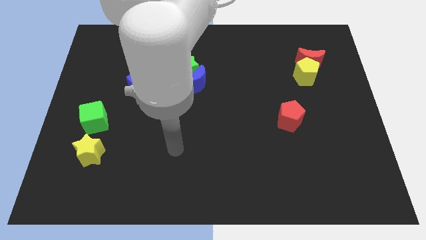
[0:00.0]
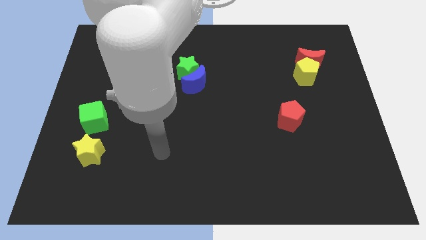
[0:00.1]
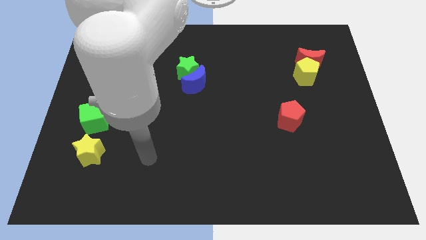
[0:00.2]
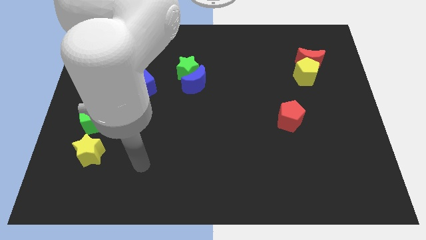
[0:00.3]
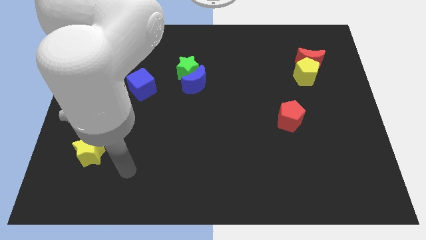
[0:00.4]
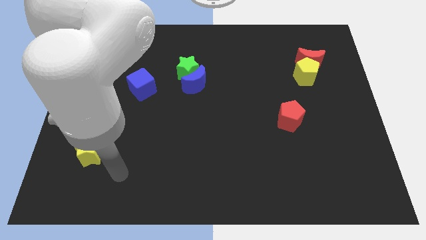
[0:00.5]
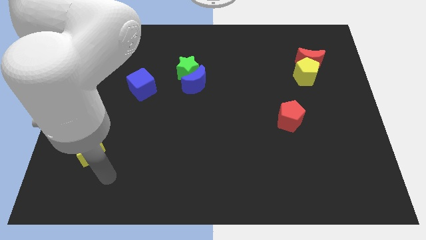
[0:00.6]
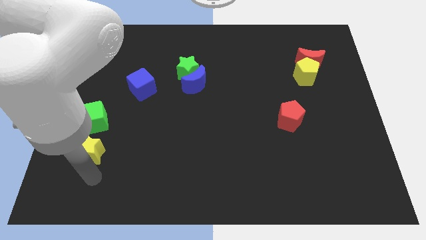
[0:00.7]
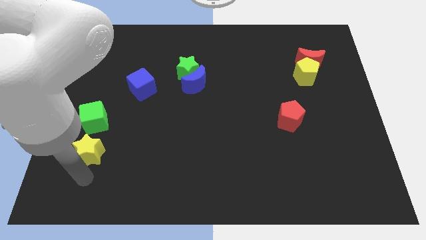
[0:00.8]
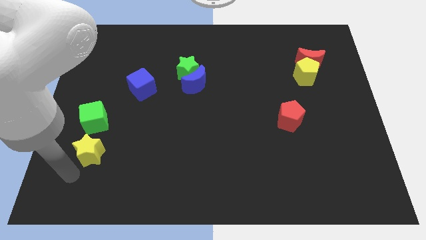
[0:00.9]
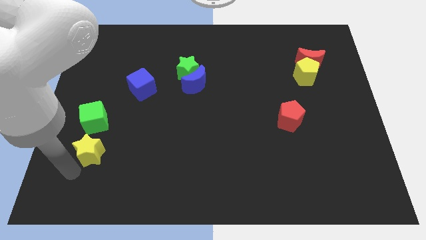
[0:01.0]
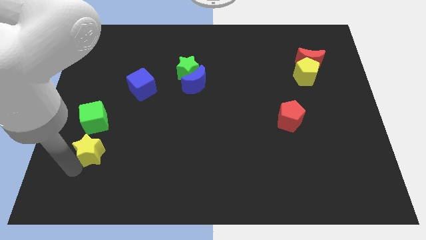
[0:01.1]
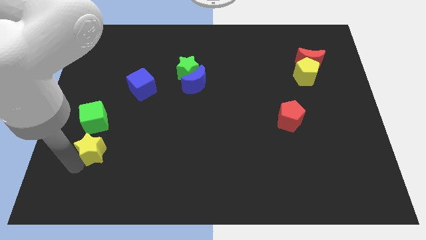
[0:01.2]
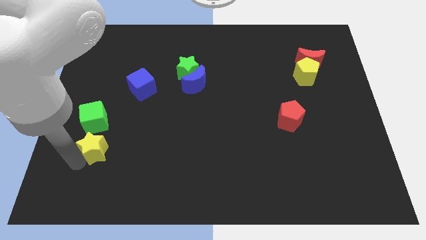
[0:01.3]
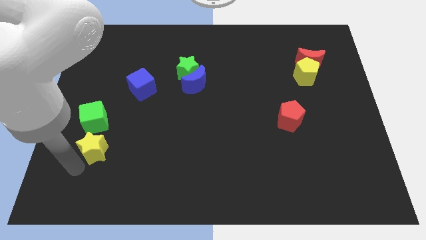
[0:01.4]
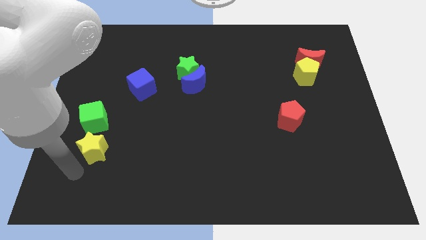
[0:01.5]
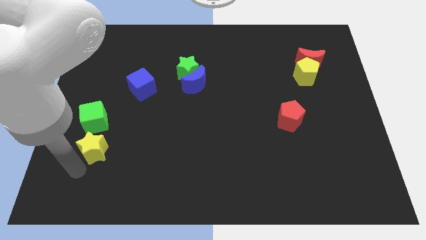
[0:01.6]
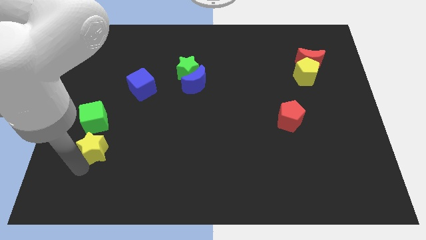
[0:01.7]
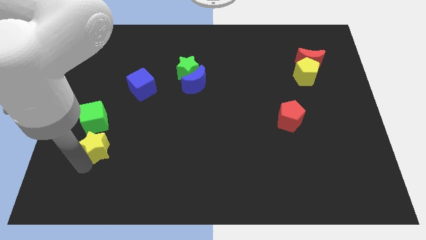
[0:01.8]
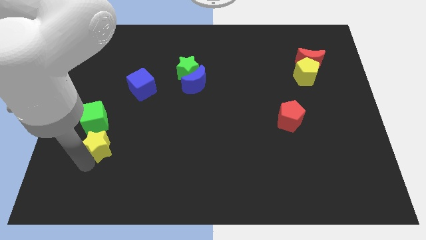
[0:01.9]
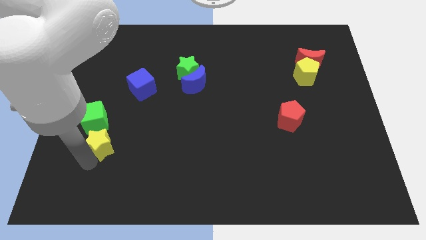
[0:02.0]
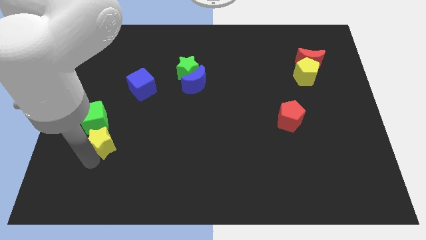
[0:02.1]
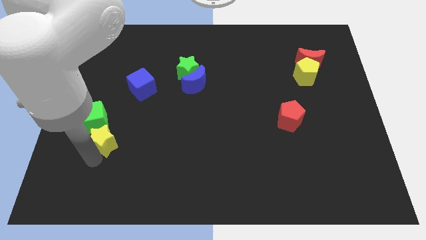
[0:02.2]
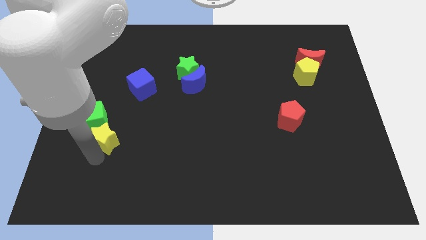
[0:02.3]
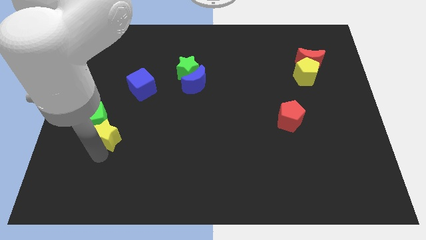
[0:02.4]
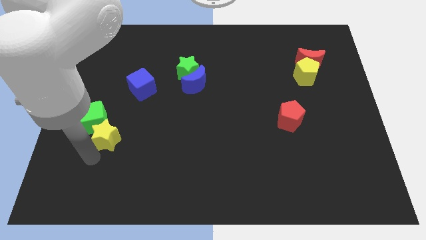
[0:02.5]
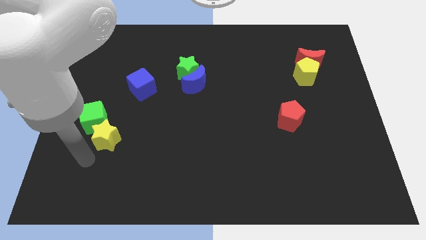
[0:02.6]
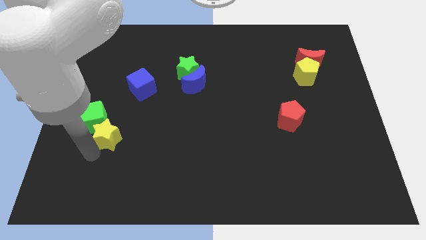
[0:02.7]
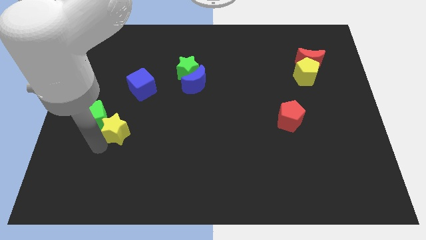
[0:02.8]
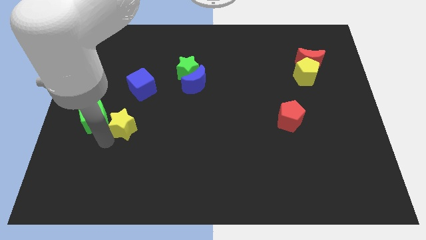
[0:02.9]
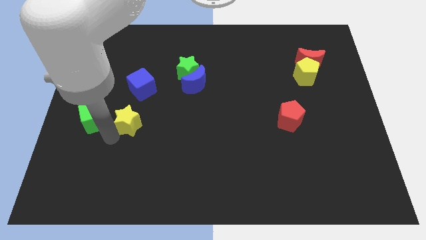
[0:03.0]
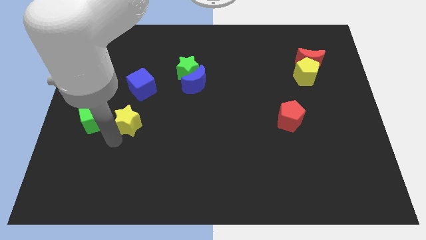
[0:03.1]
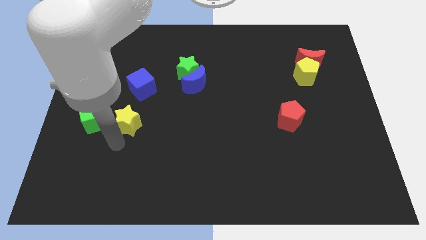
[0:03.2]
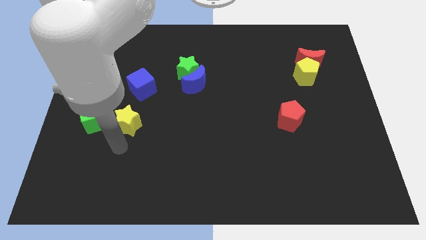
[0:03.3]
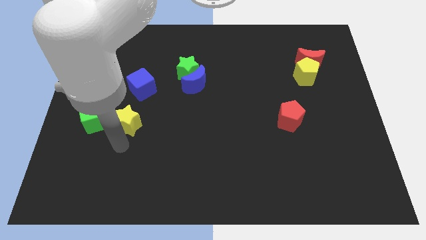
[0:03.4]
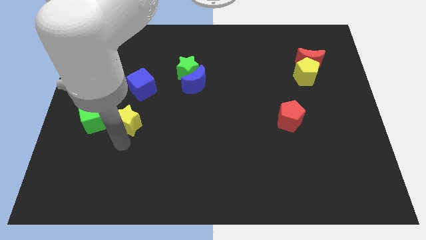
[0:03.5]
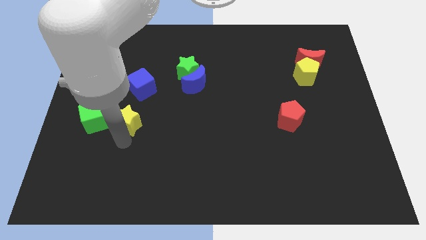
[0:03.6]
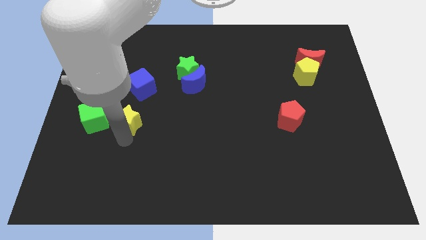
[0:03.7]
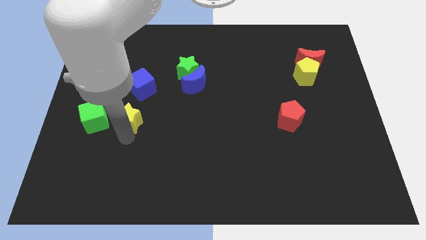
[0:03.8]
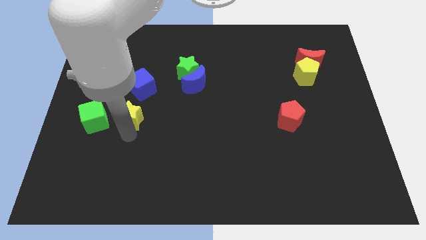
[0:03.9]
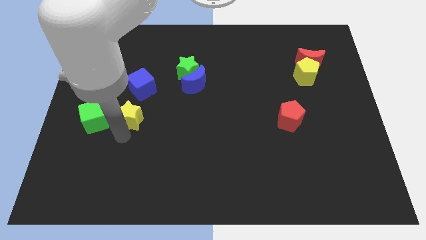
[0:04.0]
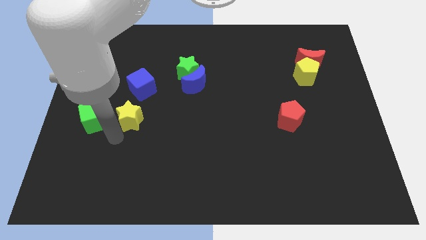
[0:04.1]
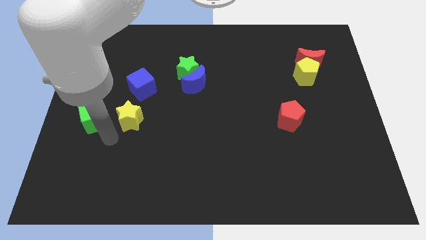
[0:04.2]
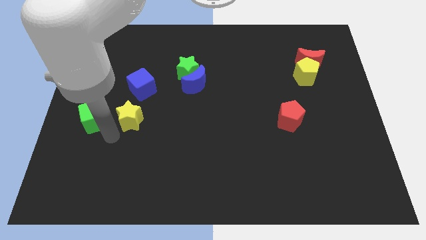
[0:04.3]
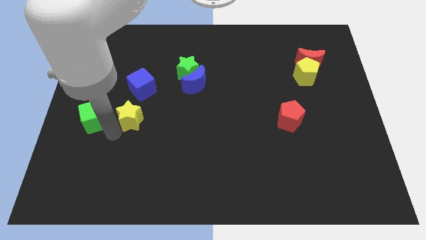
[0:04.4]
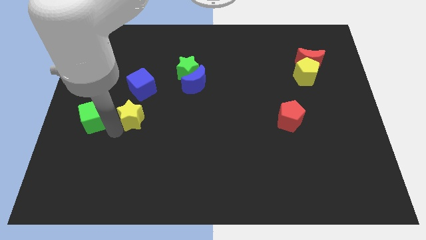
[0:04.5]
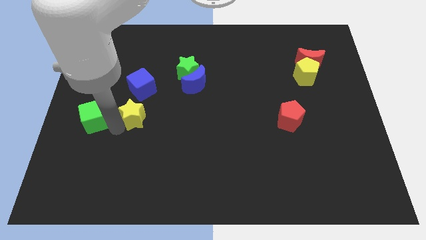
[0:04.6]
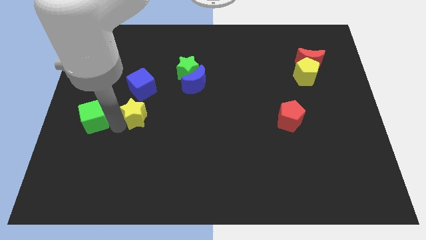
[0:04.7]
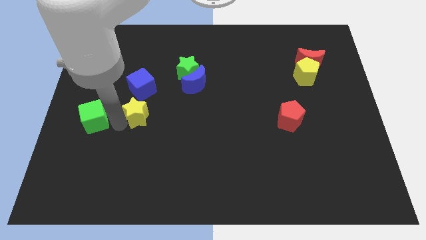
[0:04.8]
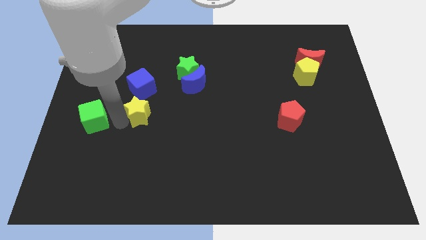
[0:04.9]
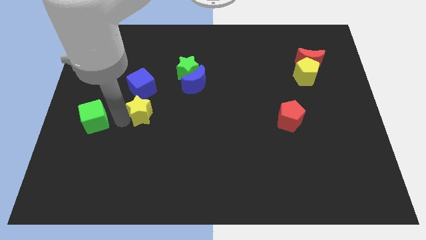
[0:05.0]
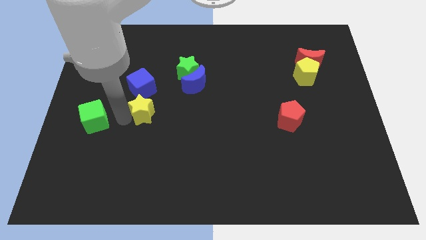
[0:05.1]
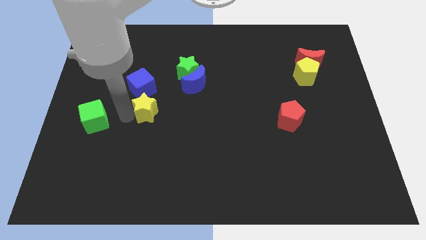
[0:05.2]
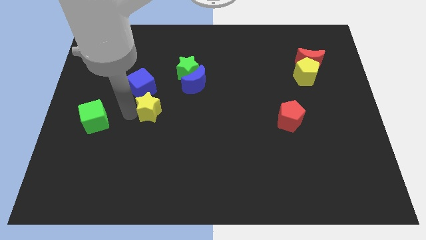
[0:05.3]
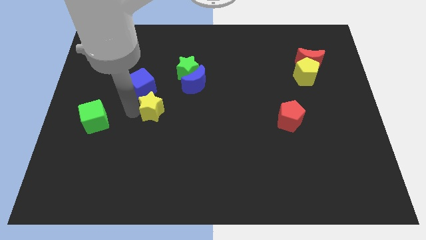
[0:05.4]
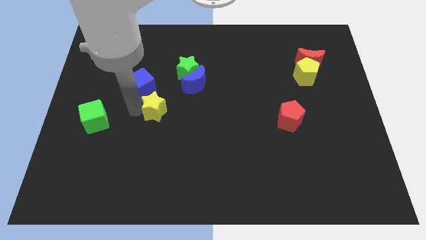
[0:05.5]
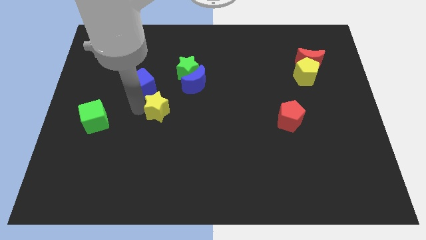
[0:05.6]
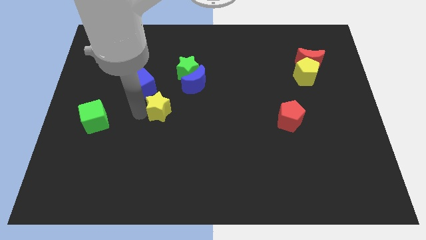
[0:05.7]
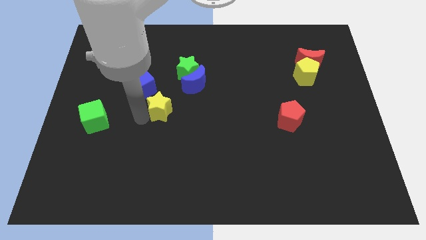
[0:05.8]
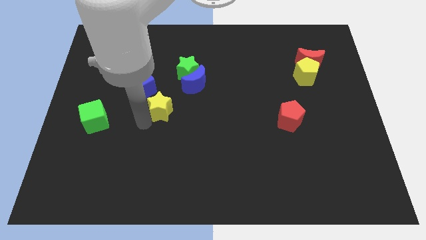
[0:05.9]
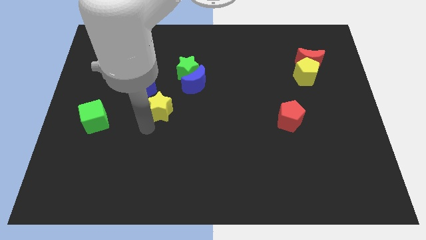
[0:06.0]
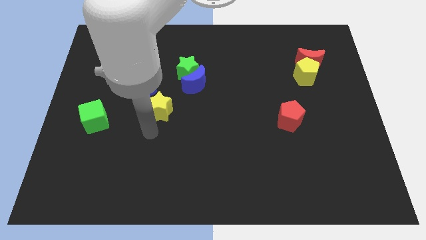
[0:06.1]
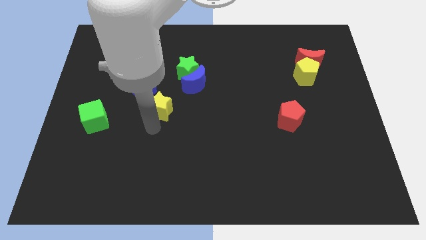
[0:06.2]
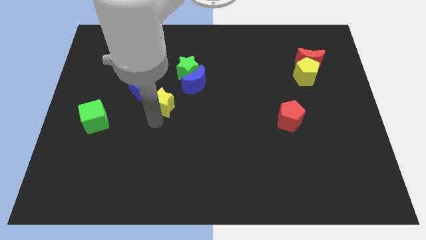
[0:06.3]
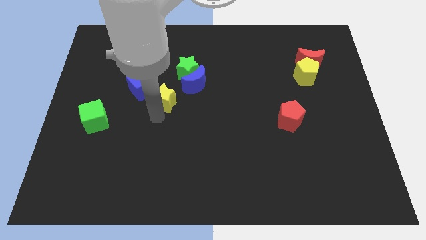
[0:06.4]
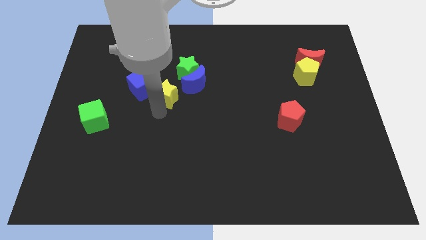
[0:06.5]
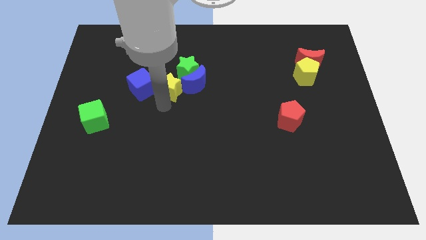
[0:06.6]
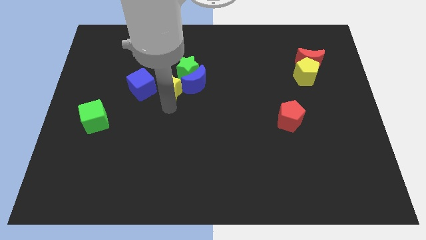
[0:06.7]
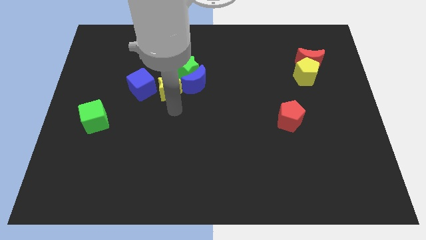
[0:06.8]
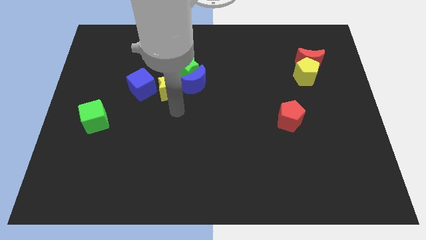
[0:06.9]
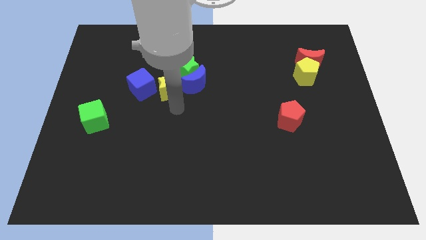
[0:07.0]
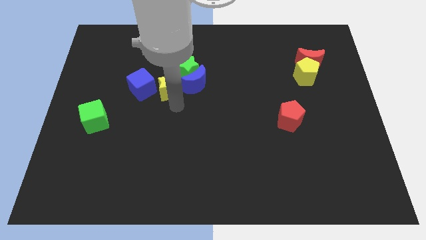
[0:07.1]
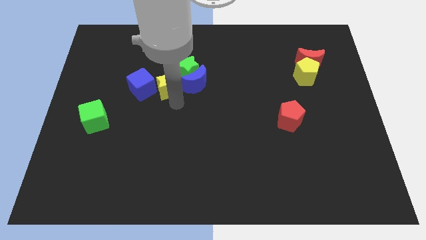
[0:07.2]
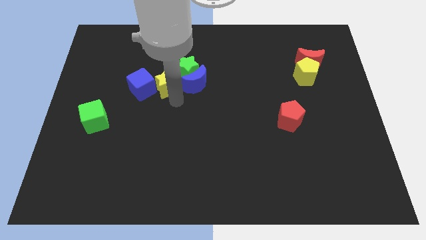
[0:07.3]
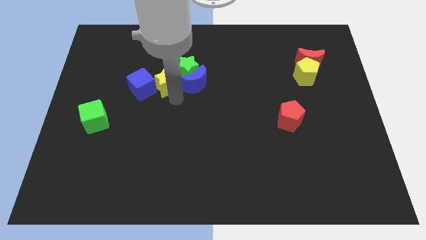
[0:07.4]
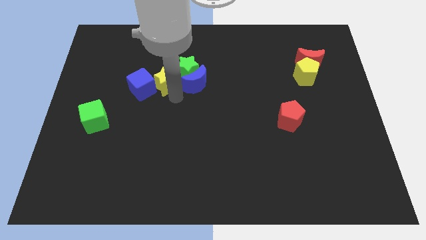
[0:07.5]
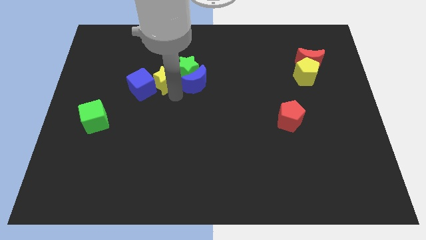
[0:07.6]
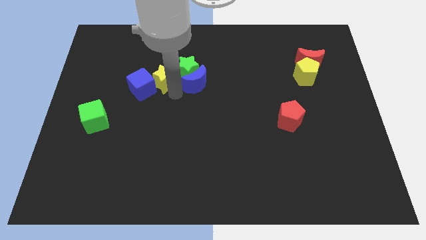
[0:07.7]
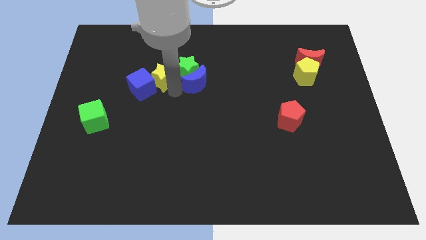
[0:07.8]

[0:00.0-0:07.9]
push the yellow star diagonally up and to the left of the blue moon
